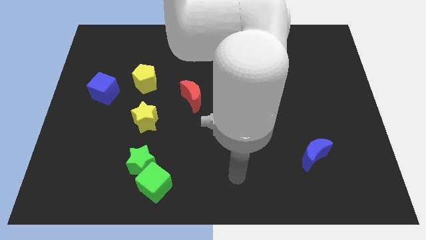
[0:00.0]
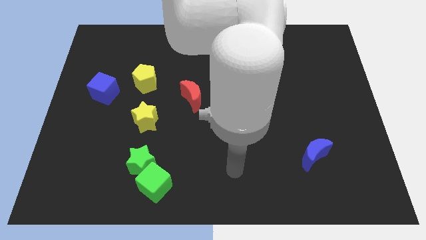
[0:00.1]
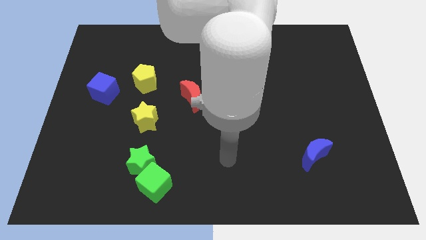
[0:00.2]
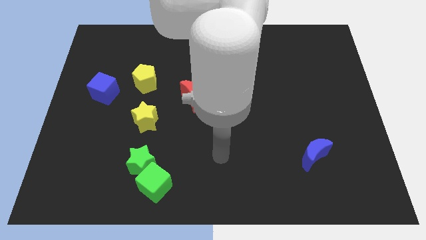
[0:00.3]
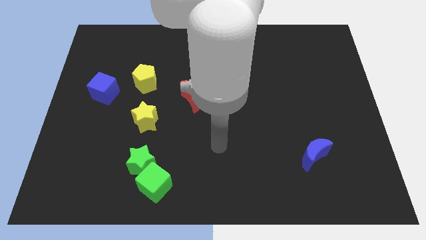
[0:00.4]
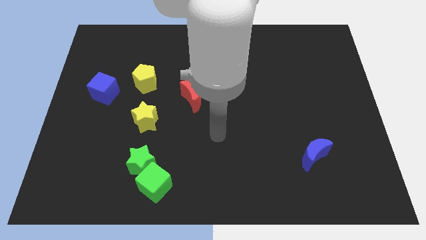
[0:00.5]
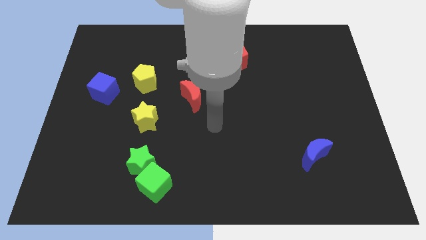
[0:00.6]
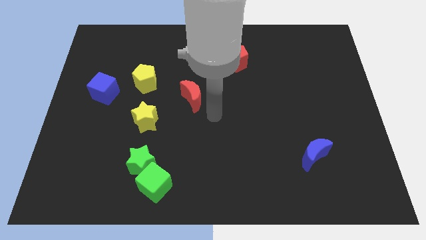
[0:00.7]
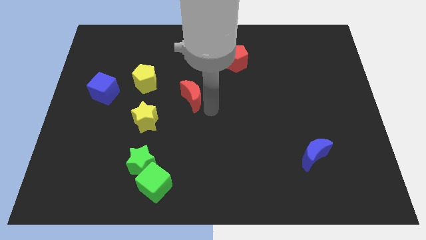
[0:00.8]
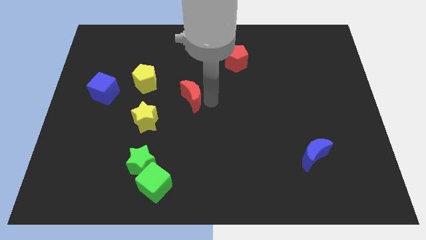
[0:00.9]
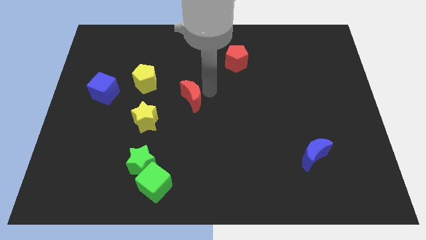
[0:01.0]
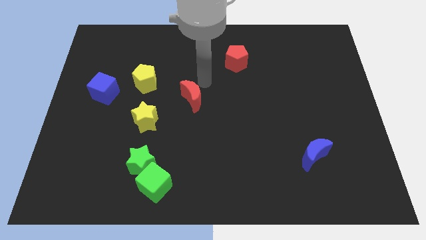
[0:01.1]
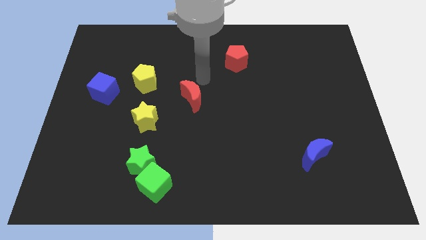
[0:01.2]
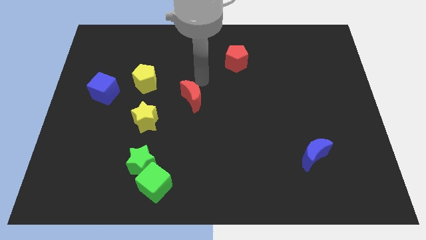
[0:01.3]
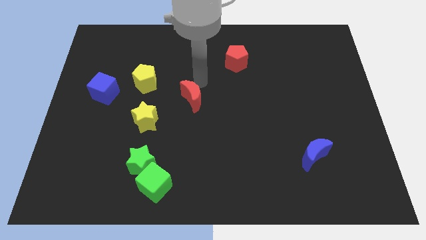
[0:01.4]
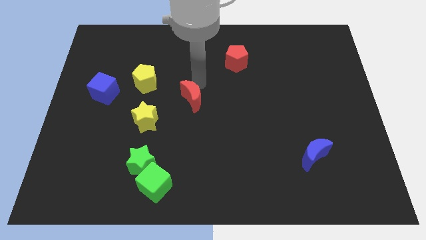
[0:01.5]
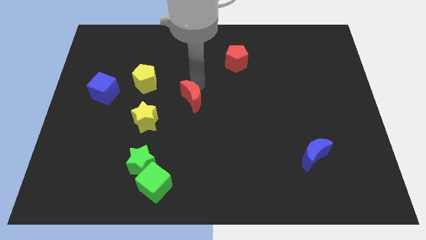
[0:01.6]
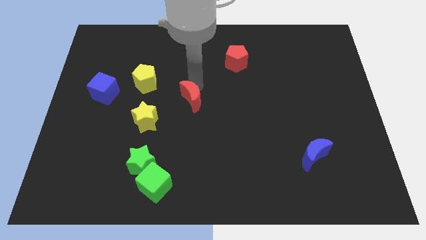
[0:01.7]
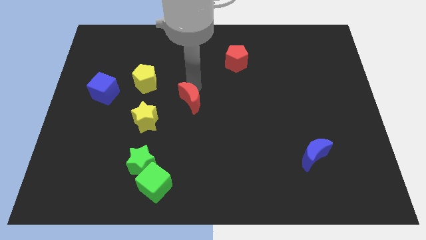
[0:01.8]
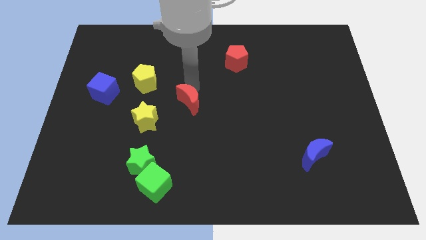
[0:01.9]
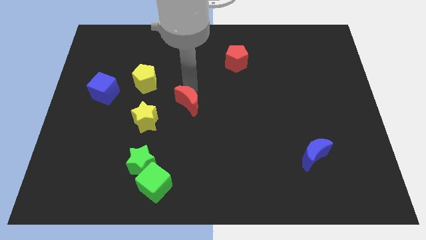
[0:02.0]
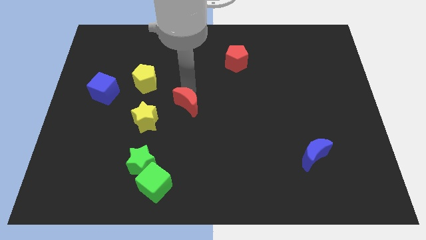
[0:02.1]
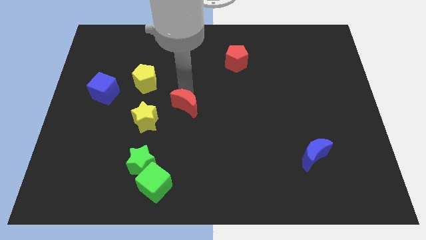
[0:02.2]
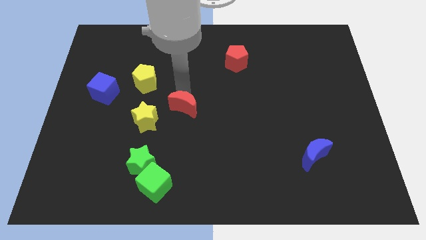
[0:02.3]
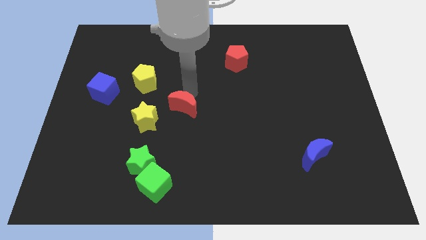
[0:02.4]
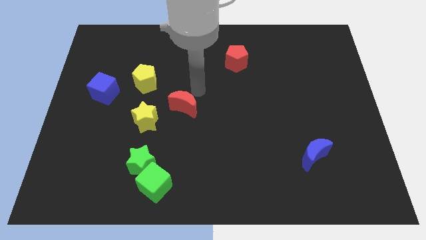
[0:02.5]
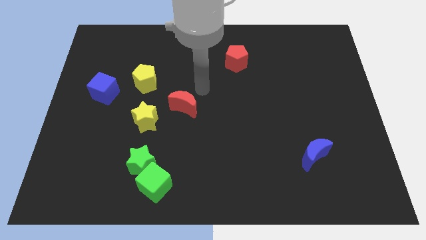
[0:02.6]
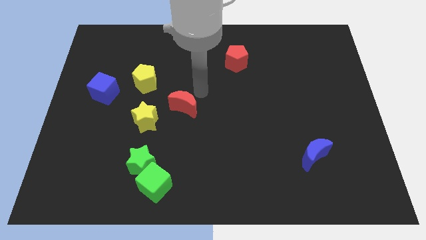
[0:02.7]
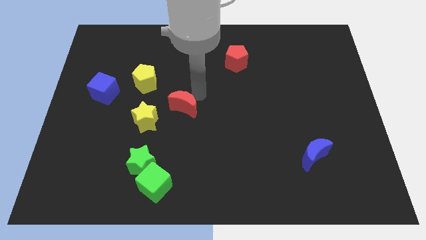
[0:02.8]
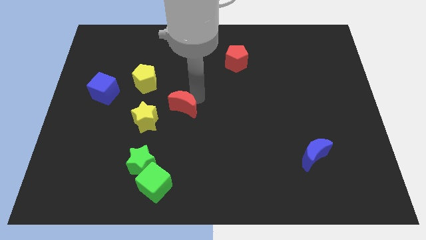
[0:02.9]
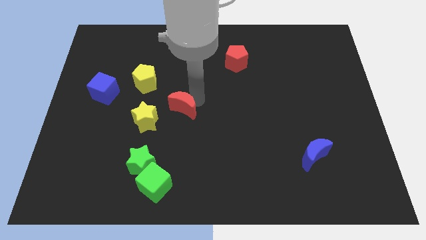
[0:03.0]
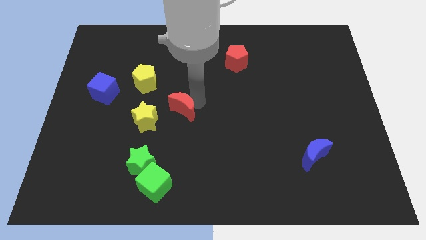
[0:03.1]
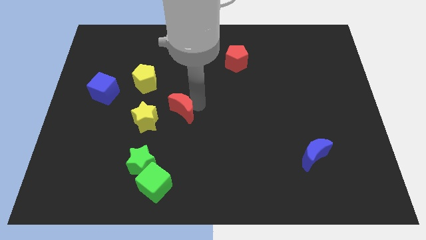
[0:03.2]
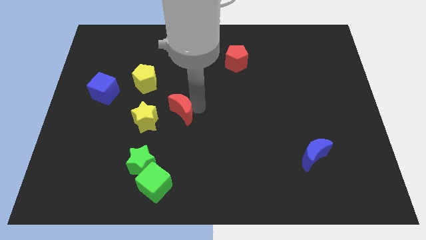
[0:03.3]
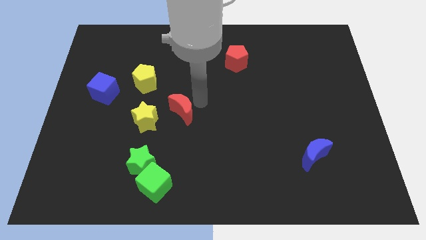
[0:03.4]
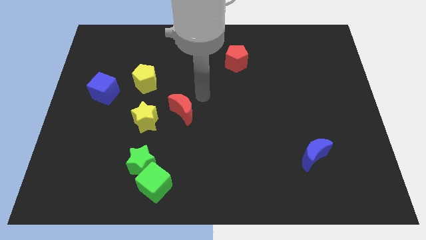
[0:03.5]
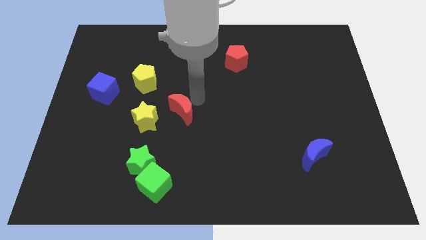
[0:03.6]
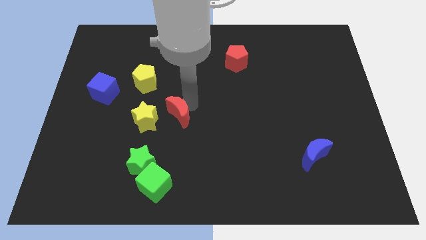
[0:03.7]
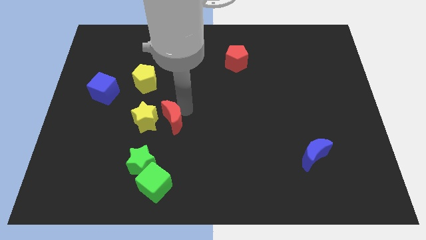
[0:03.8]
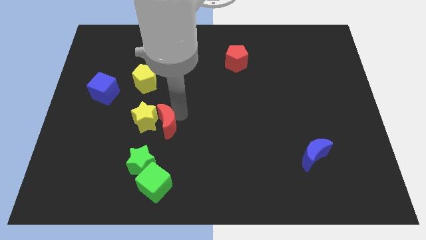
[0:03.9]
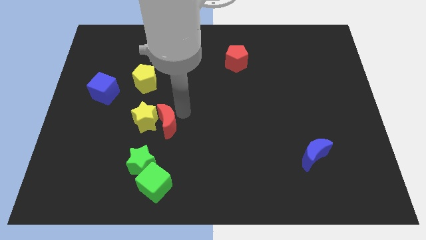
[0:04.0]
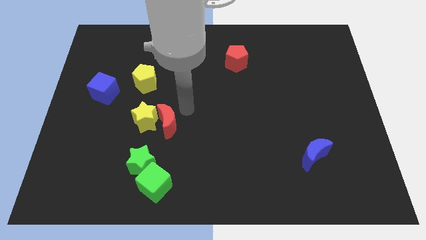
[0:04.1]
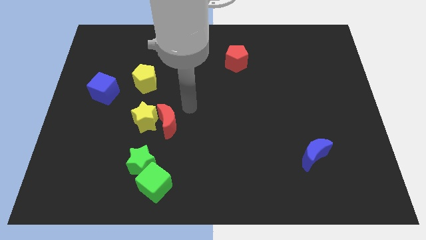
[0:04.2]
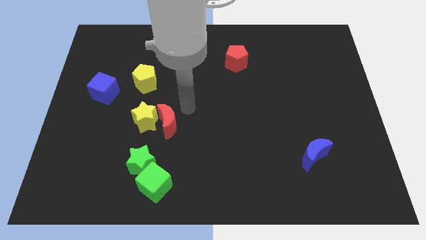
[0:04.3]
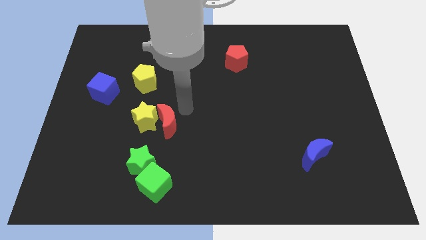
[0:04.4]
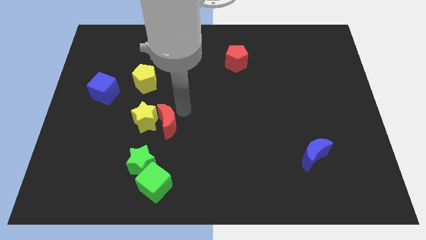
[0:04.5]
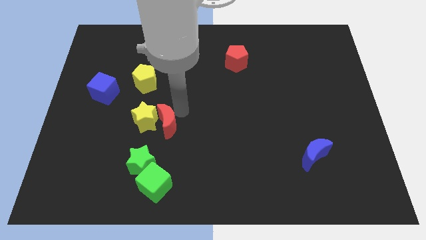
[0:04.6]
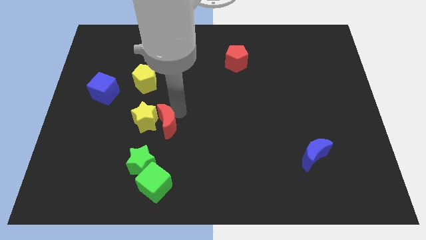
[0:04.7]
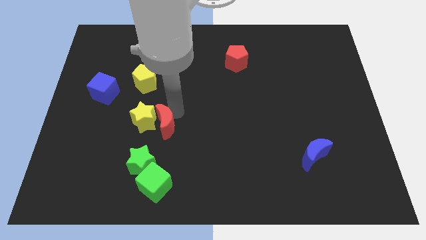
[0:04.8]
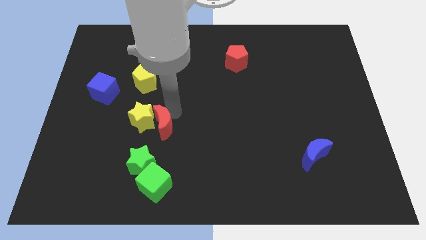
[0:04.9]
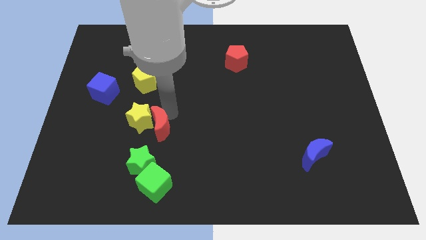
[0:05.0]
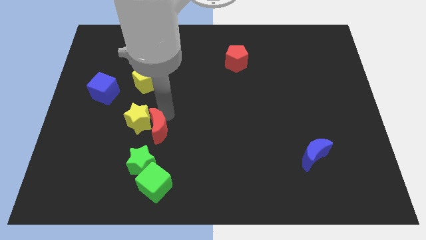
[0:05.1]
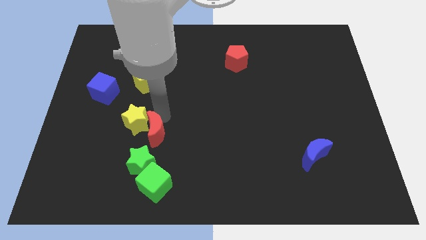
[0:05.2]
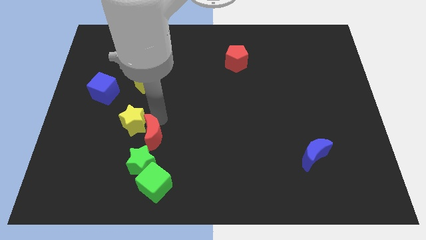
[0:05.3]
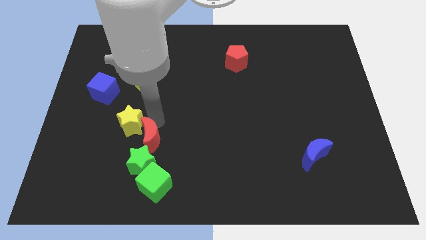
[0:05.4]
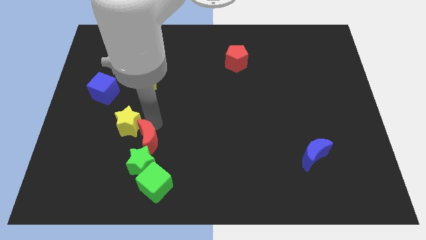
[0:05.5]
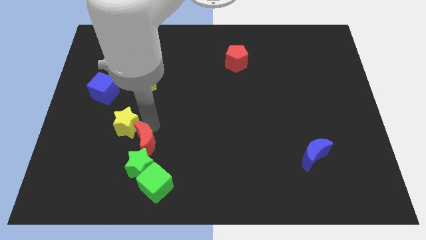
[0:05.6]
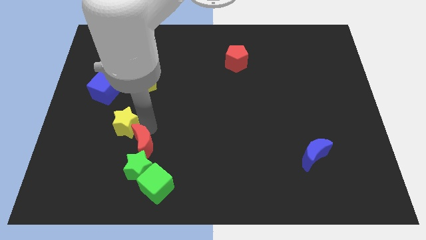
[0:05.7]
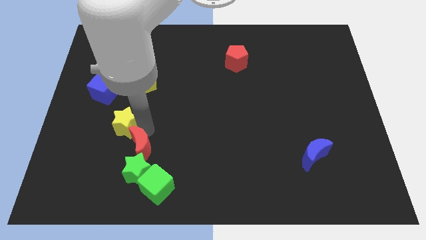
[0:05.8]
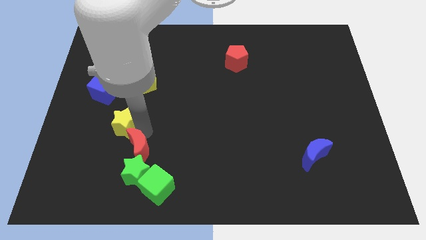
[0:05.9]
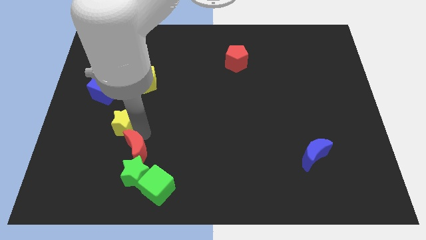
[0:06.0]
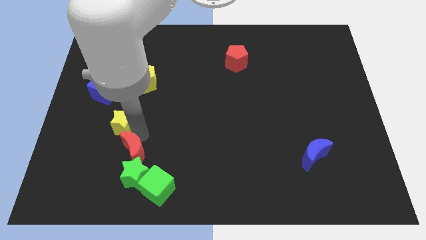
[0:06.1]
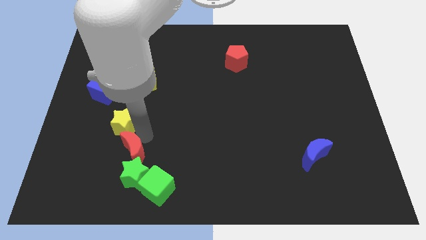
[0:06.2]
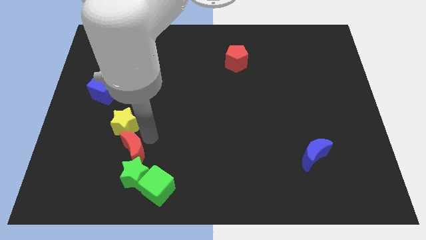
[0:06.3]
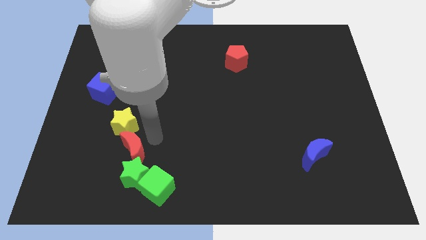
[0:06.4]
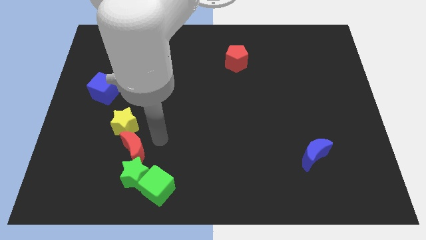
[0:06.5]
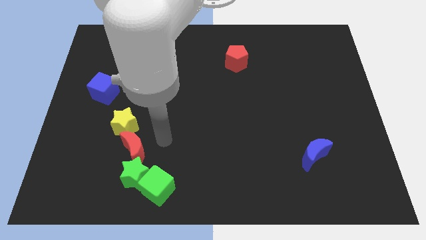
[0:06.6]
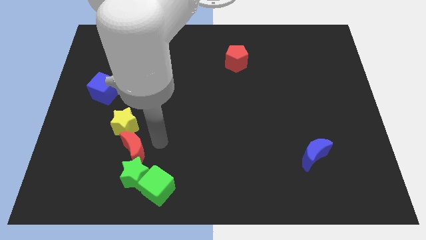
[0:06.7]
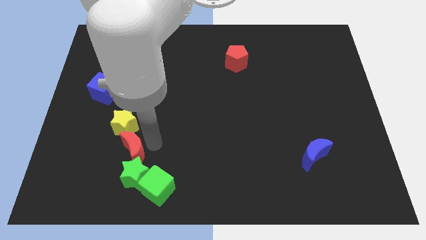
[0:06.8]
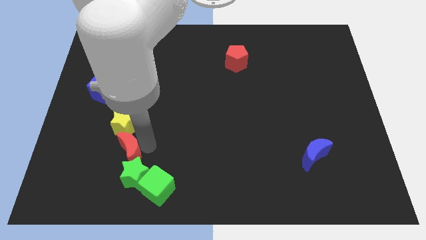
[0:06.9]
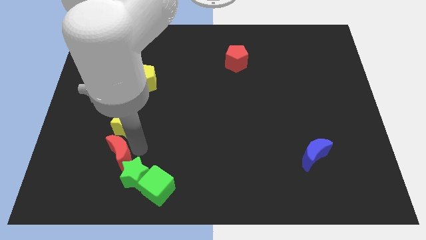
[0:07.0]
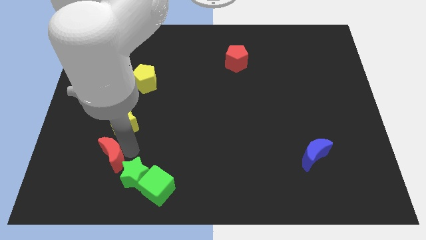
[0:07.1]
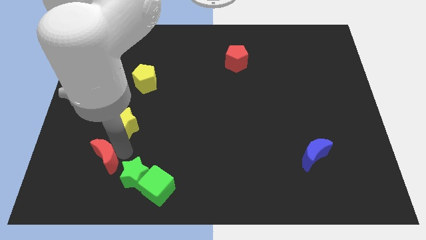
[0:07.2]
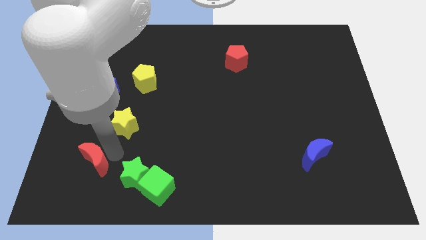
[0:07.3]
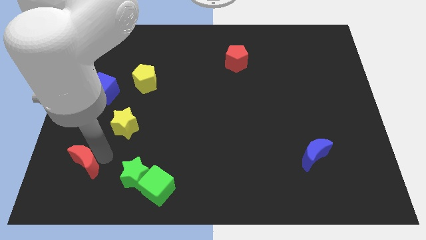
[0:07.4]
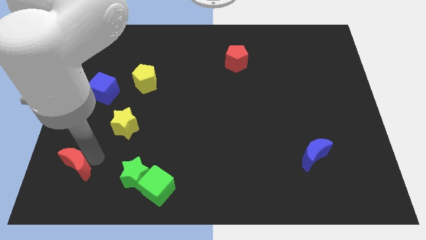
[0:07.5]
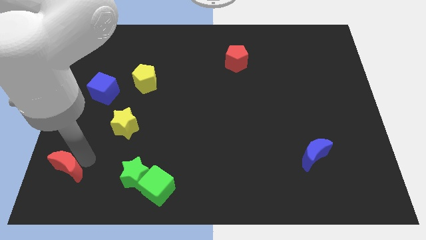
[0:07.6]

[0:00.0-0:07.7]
put the red moon to the bottom left

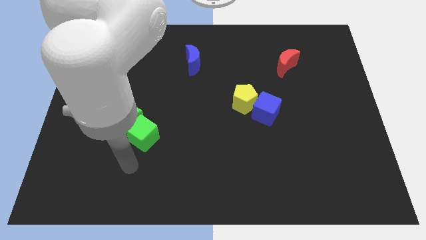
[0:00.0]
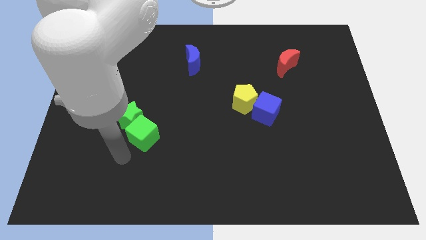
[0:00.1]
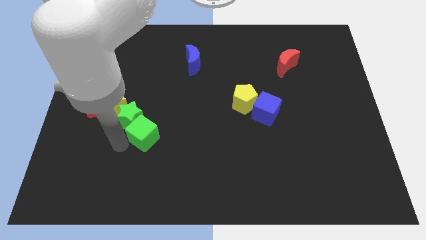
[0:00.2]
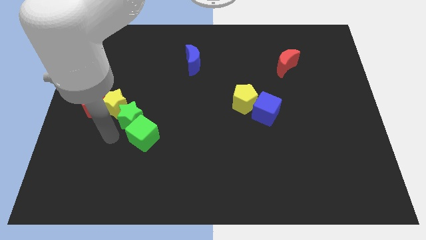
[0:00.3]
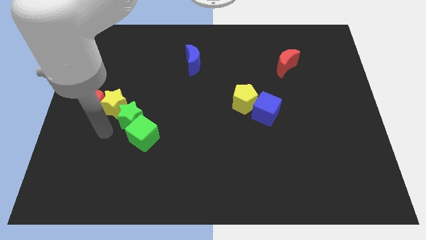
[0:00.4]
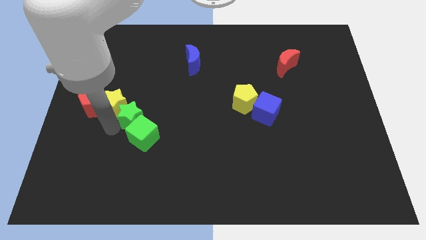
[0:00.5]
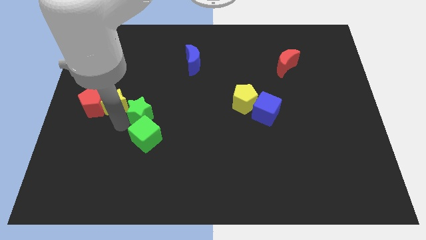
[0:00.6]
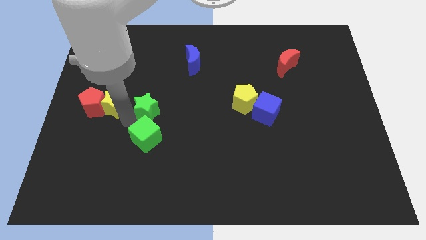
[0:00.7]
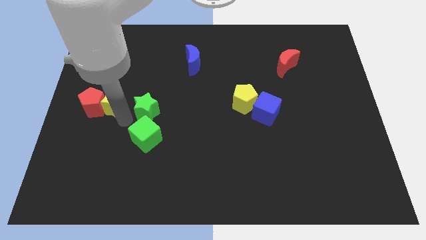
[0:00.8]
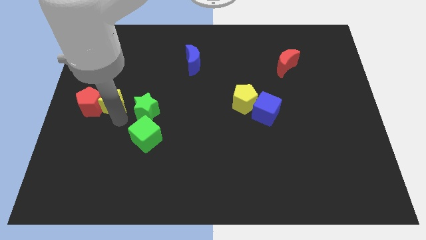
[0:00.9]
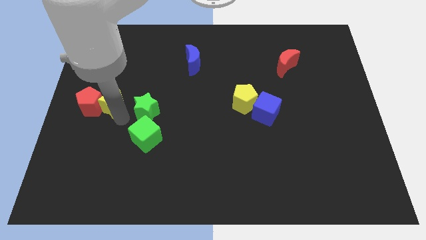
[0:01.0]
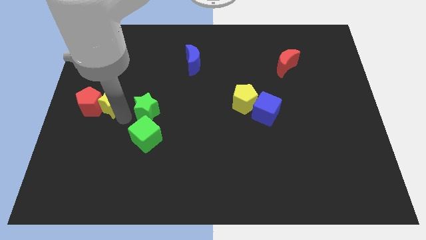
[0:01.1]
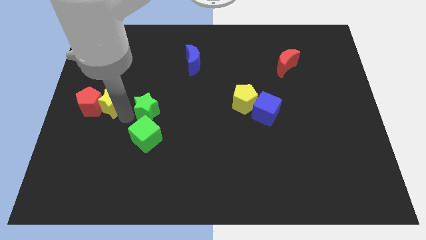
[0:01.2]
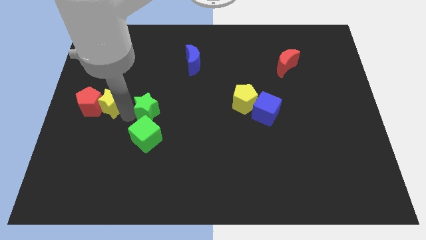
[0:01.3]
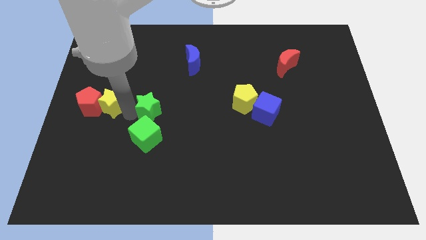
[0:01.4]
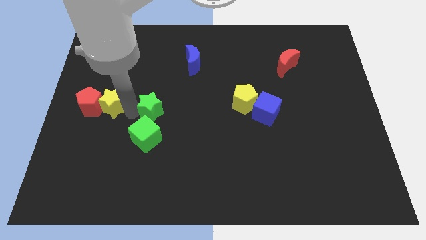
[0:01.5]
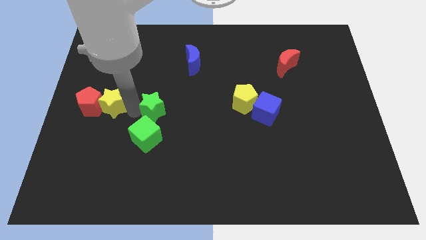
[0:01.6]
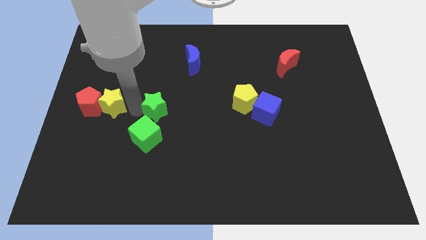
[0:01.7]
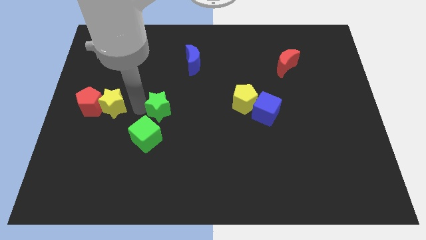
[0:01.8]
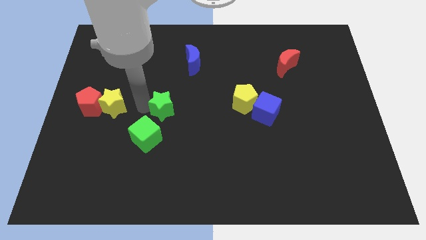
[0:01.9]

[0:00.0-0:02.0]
slide the green star to the center
